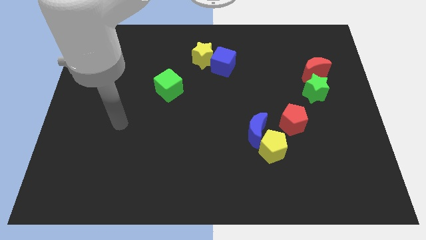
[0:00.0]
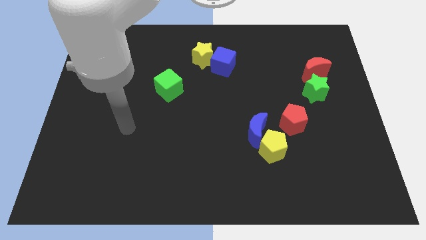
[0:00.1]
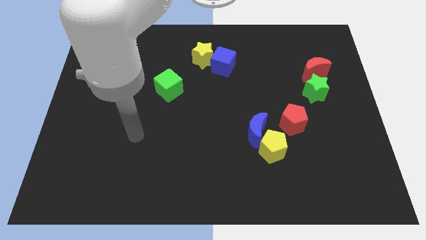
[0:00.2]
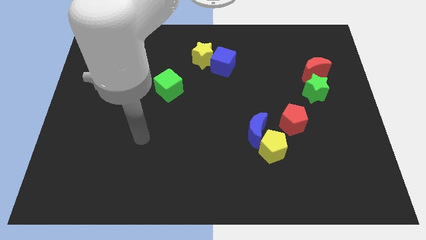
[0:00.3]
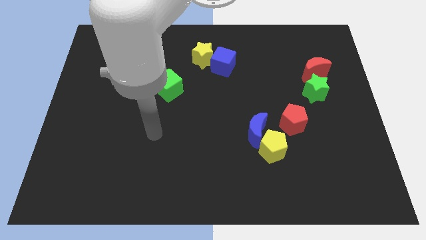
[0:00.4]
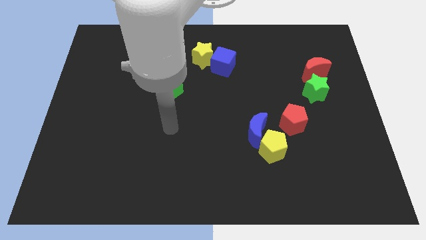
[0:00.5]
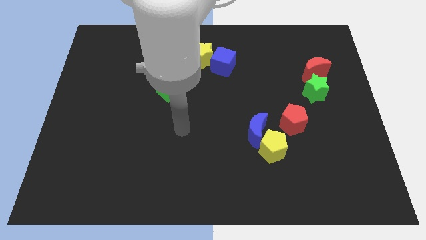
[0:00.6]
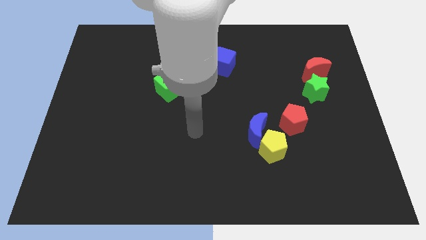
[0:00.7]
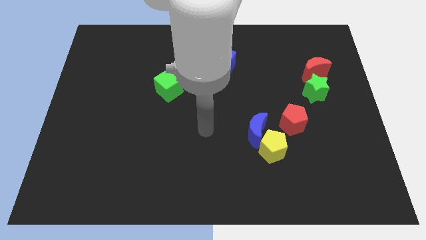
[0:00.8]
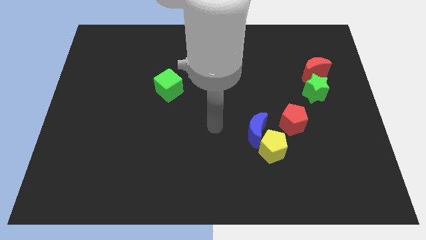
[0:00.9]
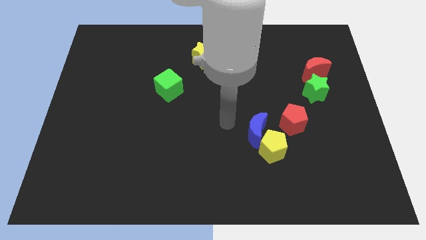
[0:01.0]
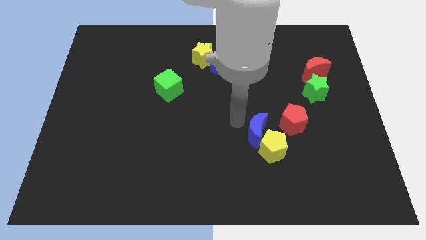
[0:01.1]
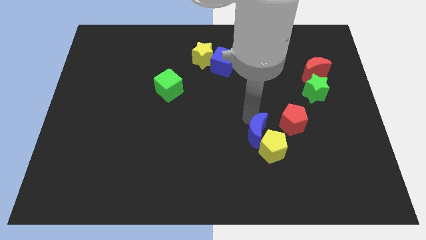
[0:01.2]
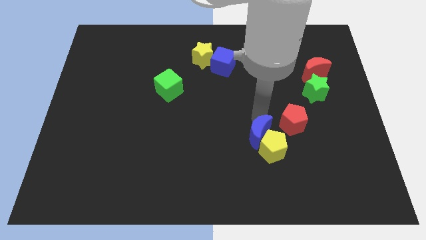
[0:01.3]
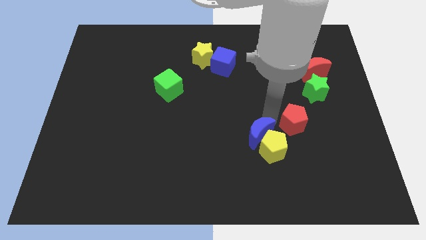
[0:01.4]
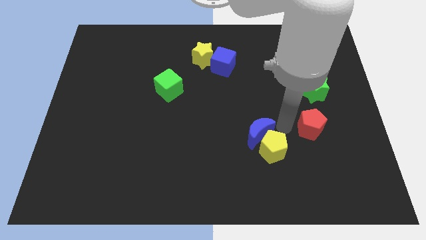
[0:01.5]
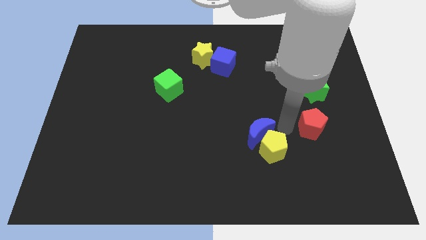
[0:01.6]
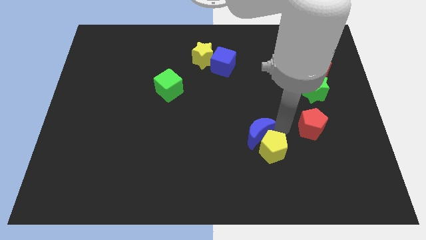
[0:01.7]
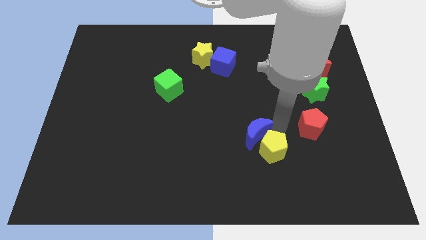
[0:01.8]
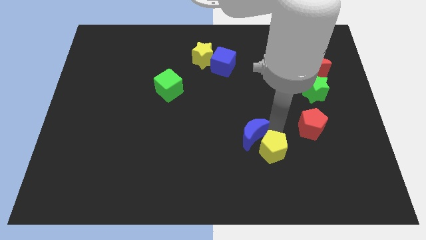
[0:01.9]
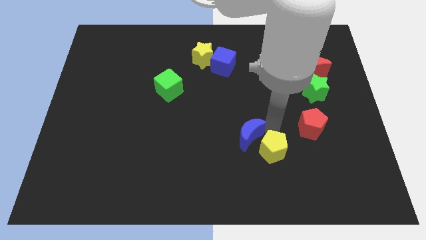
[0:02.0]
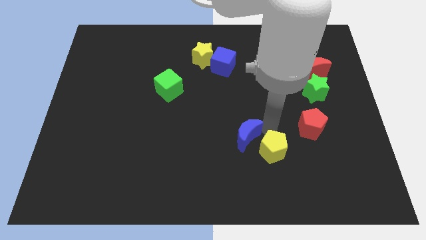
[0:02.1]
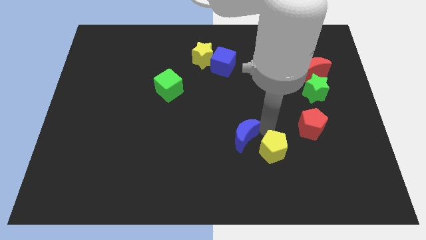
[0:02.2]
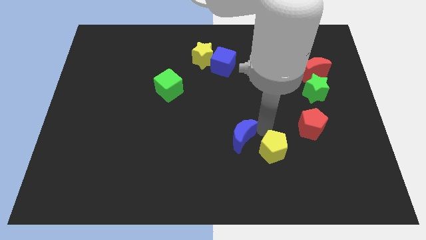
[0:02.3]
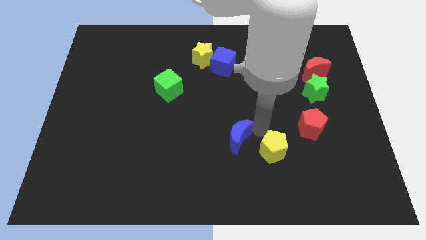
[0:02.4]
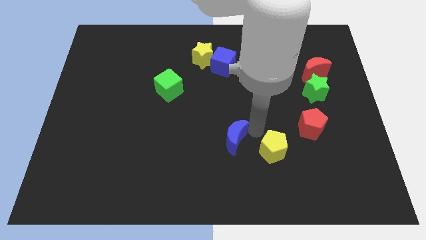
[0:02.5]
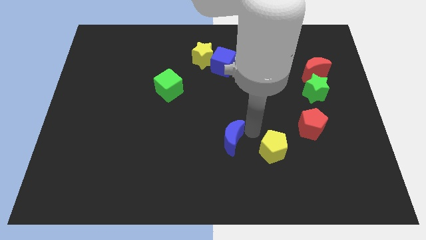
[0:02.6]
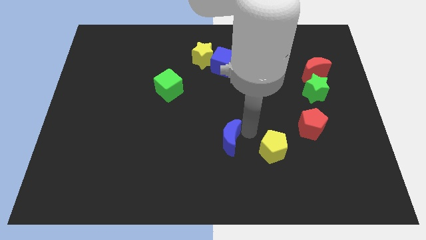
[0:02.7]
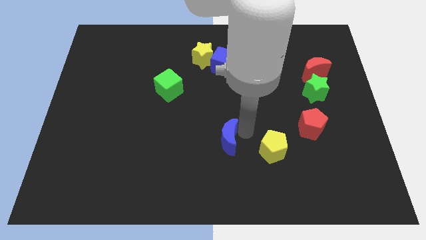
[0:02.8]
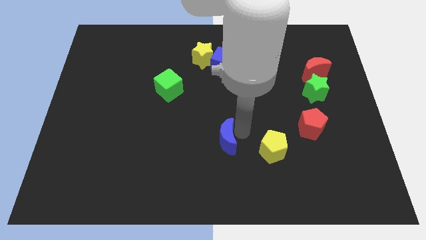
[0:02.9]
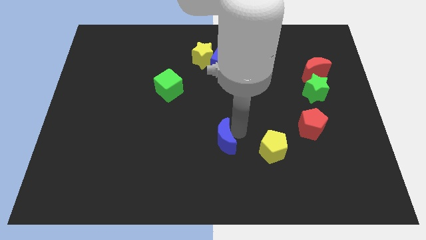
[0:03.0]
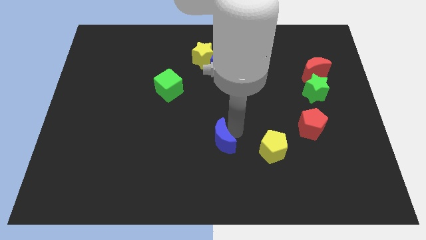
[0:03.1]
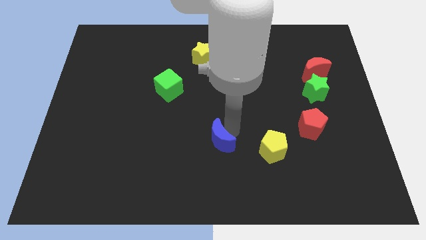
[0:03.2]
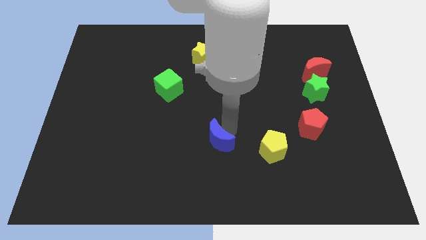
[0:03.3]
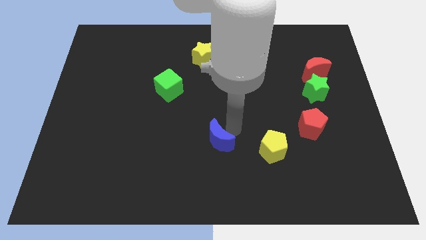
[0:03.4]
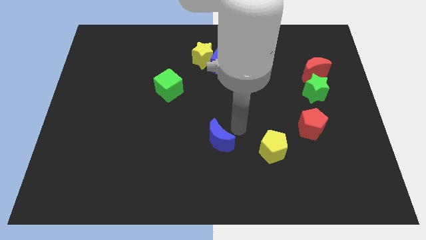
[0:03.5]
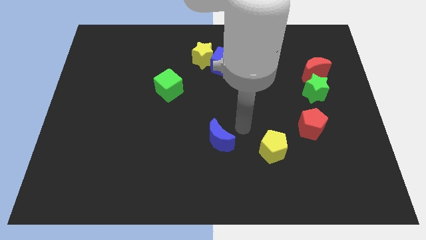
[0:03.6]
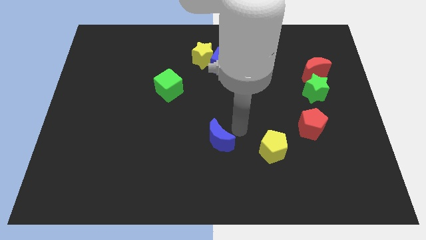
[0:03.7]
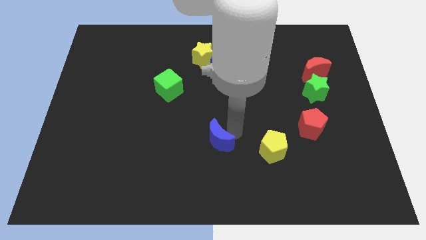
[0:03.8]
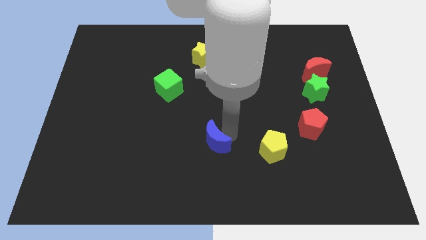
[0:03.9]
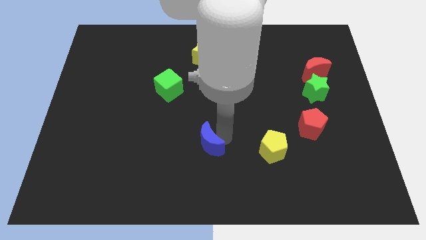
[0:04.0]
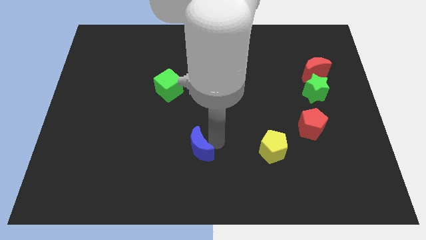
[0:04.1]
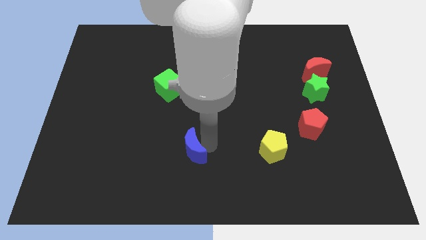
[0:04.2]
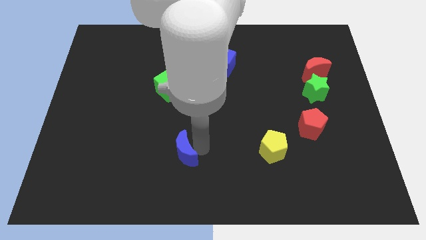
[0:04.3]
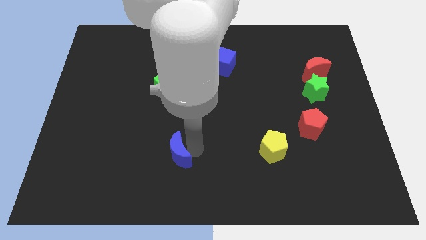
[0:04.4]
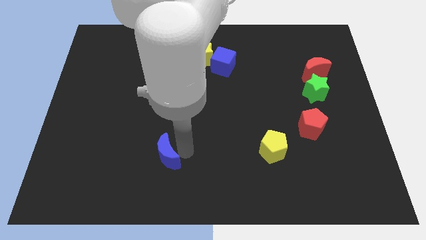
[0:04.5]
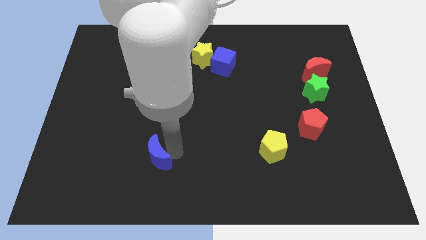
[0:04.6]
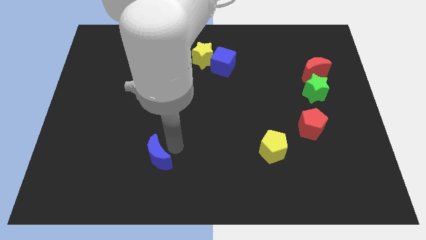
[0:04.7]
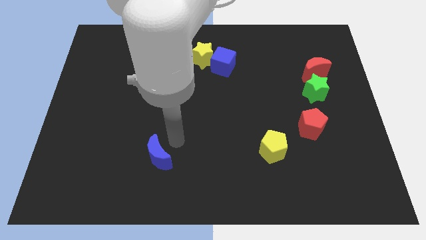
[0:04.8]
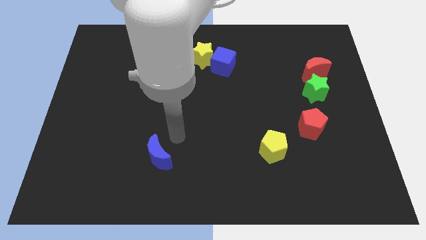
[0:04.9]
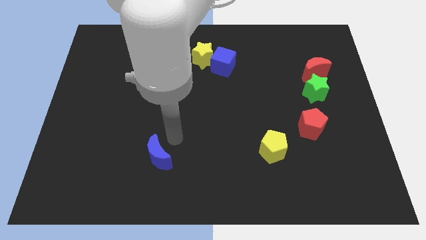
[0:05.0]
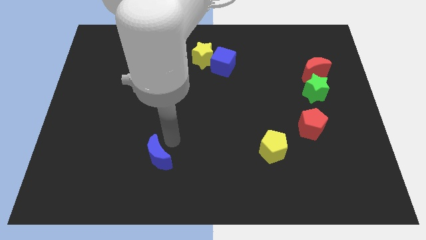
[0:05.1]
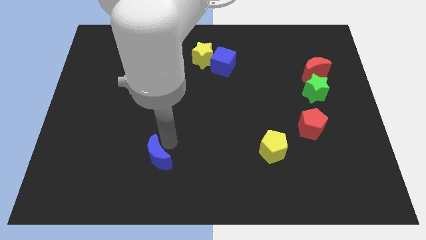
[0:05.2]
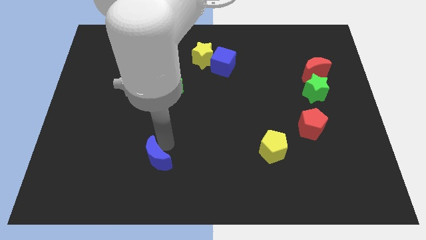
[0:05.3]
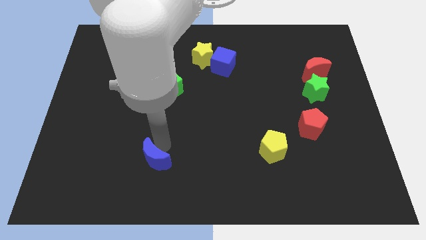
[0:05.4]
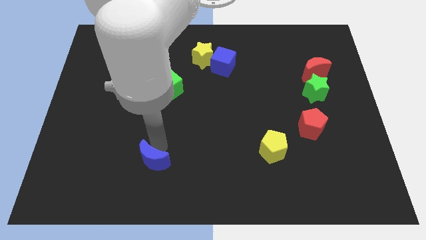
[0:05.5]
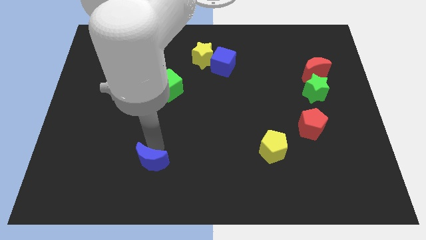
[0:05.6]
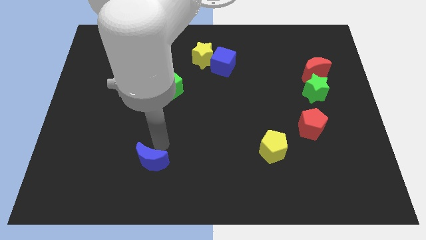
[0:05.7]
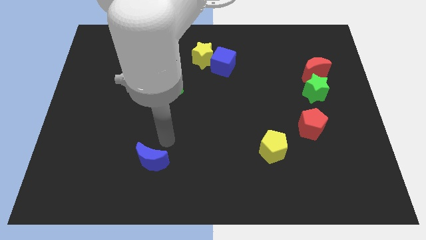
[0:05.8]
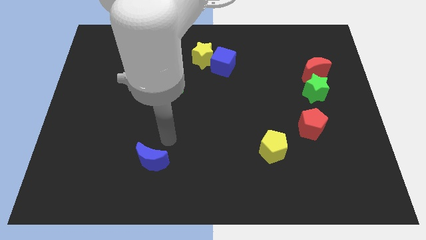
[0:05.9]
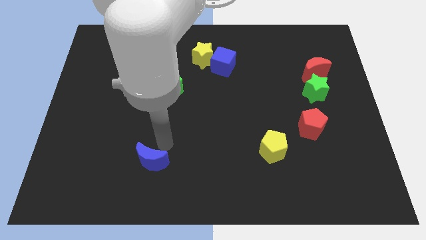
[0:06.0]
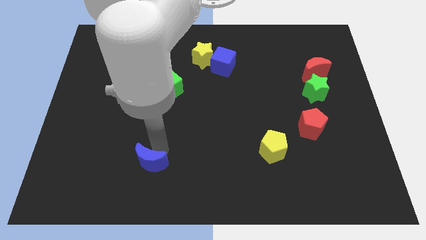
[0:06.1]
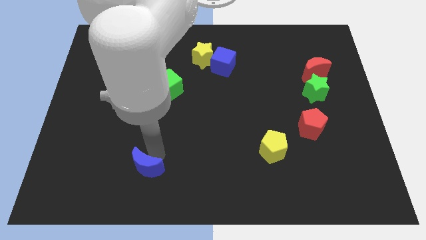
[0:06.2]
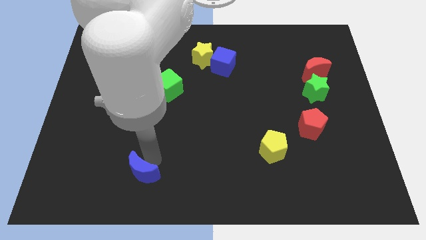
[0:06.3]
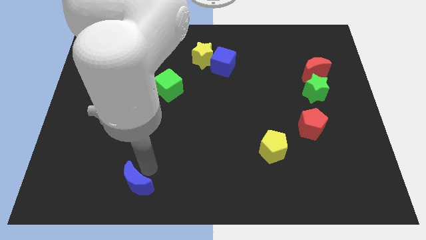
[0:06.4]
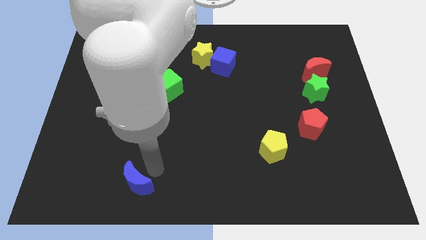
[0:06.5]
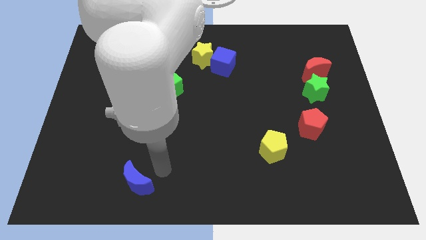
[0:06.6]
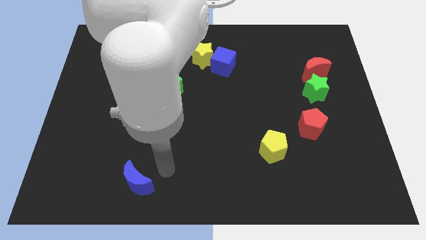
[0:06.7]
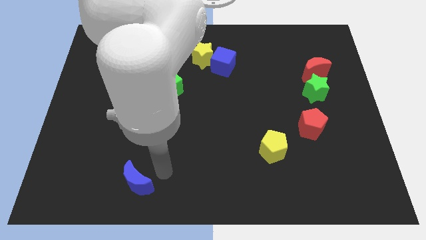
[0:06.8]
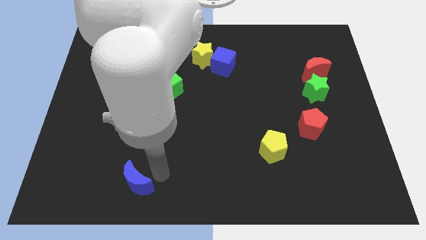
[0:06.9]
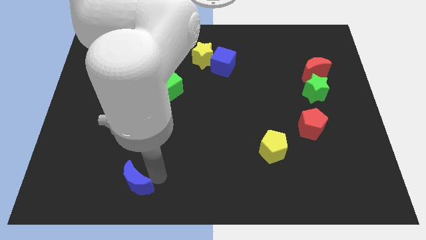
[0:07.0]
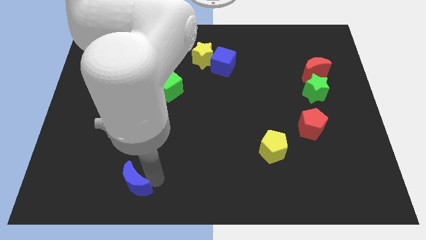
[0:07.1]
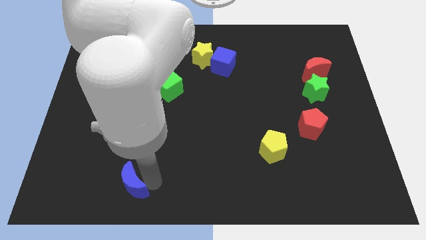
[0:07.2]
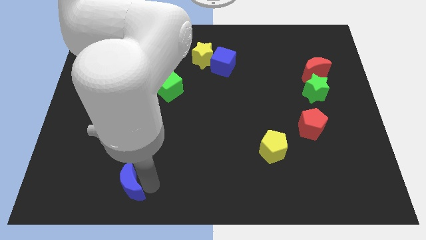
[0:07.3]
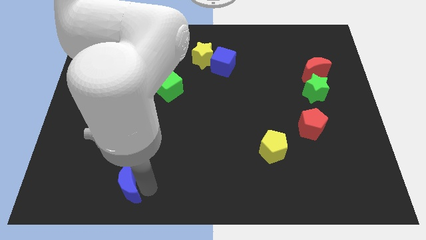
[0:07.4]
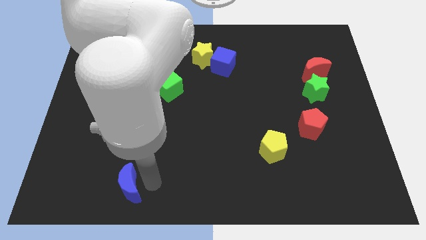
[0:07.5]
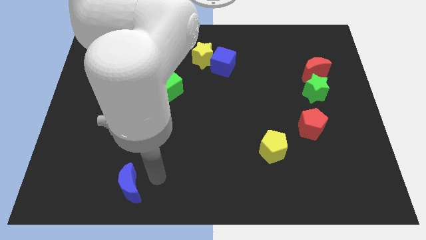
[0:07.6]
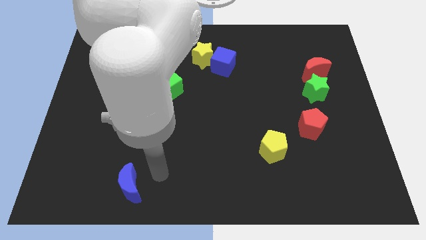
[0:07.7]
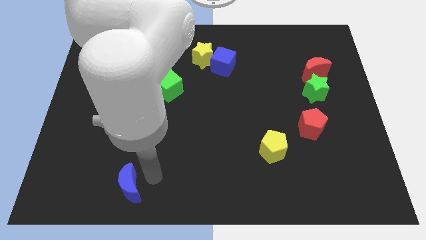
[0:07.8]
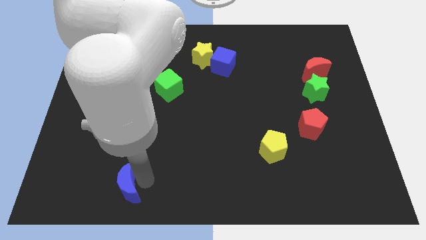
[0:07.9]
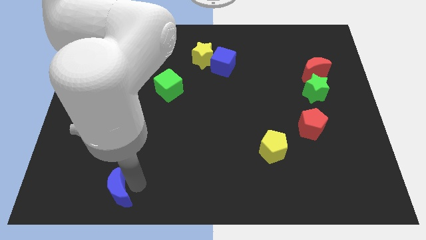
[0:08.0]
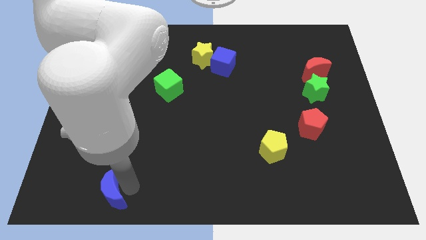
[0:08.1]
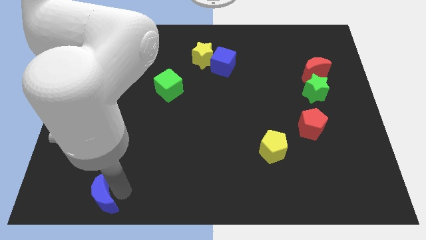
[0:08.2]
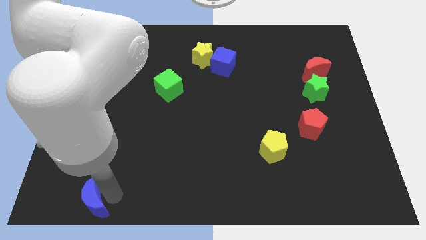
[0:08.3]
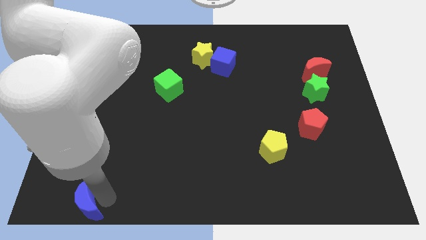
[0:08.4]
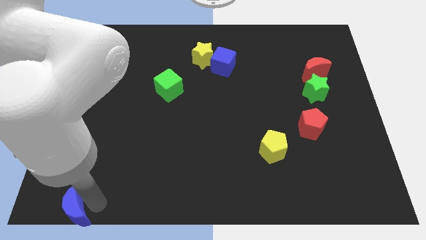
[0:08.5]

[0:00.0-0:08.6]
push the blue moon to the bottom left
